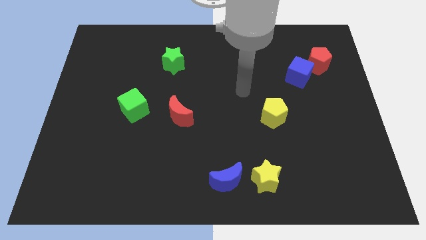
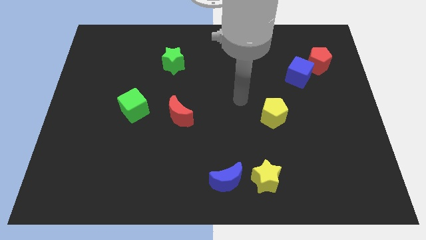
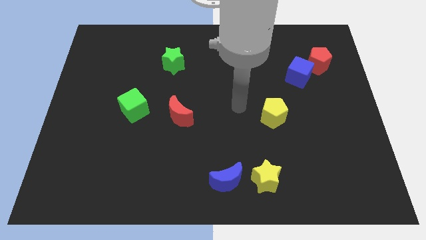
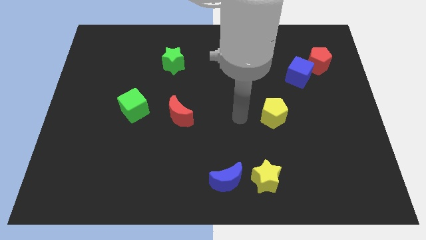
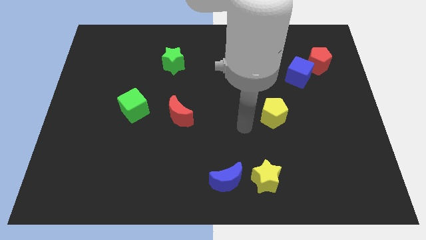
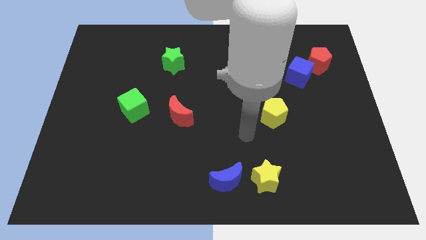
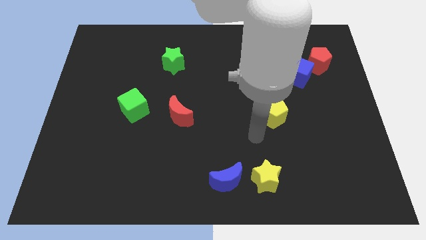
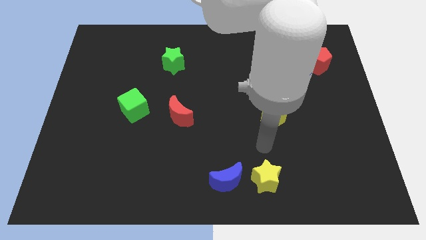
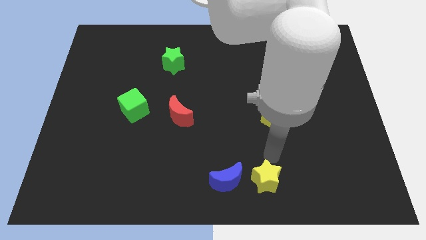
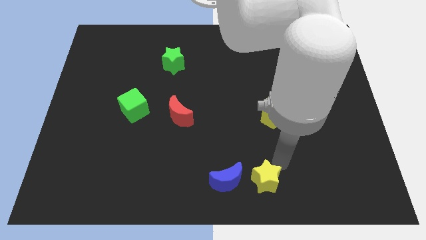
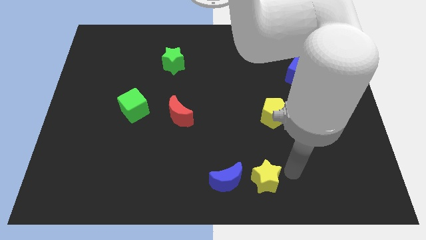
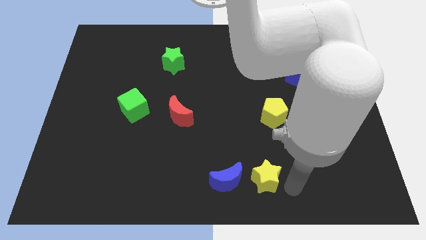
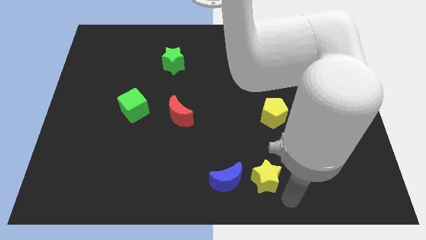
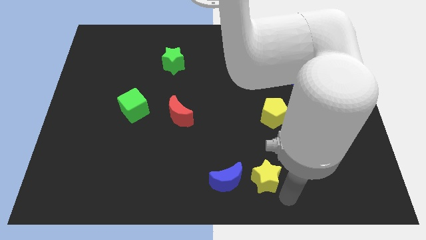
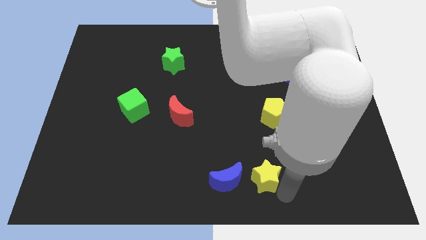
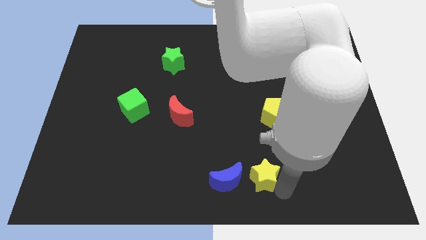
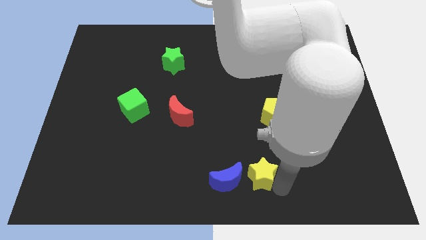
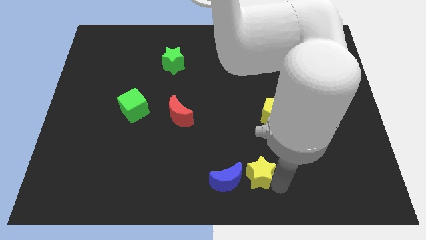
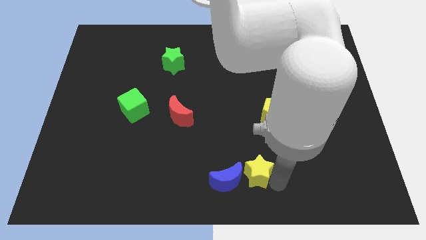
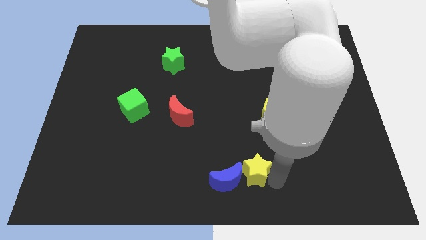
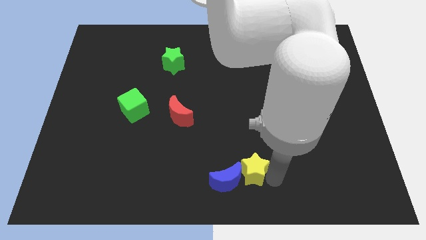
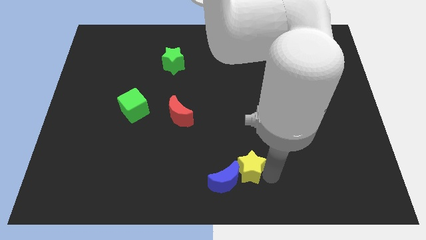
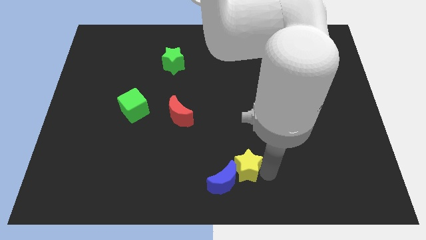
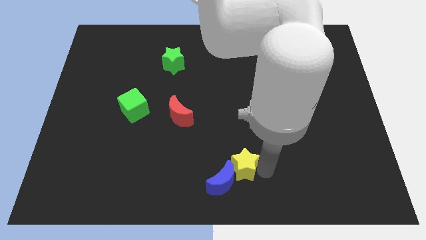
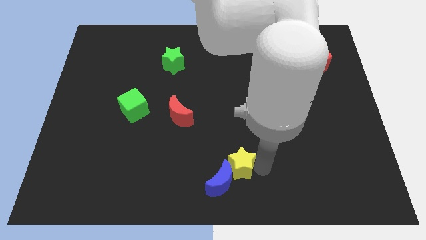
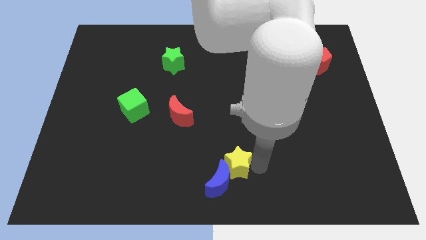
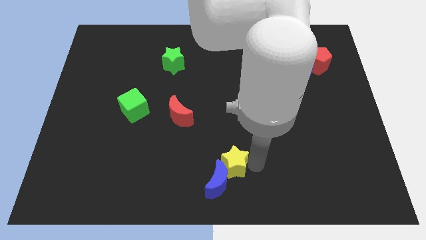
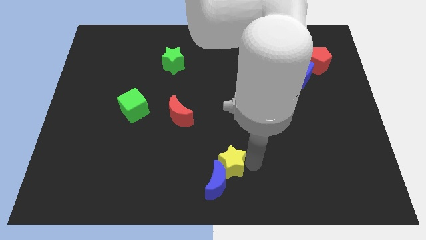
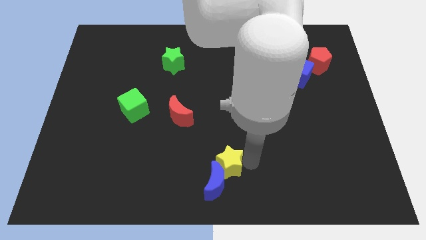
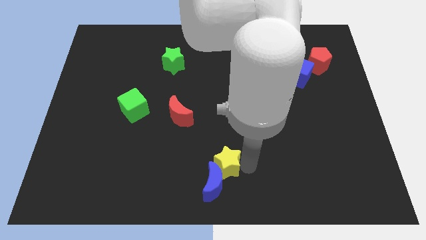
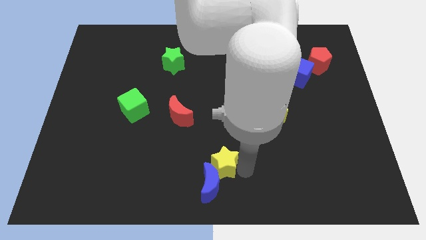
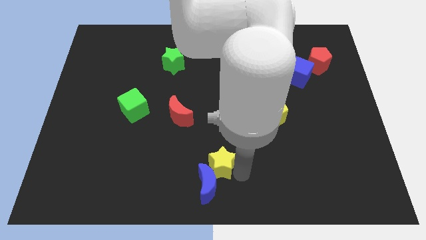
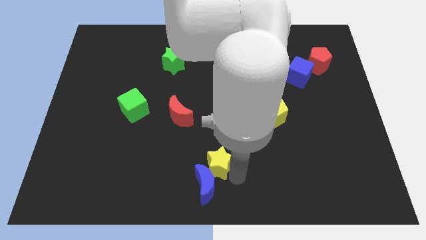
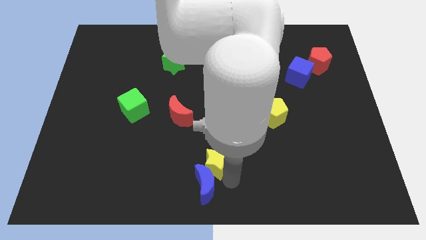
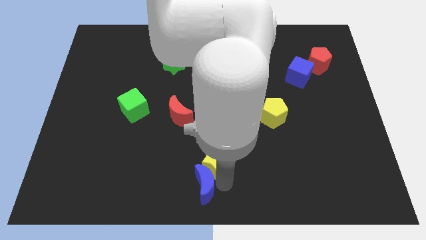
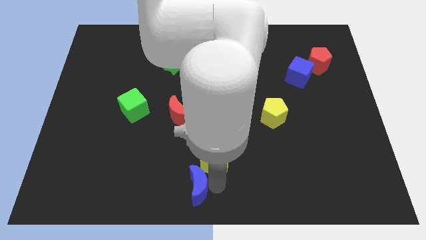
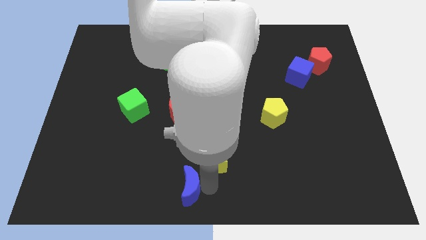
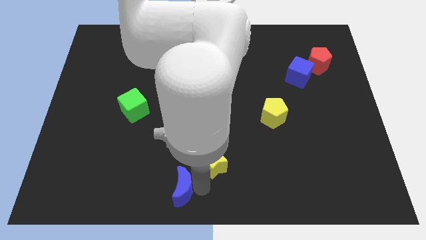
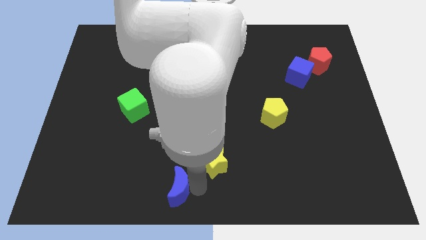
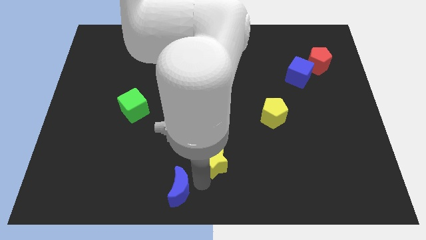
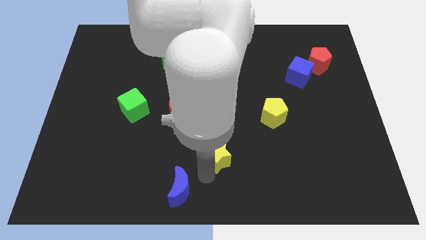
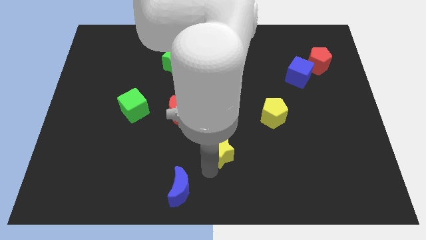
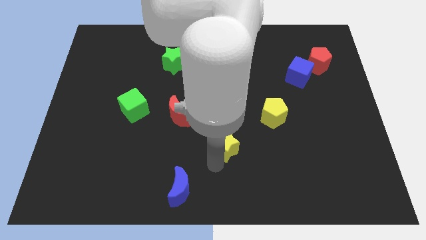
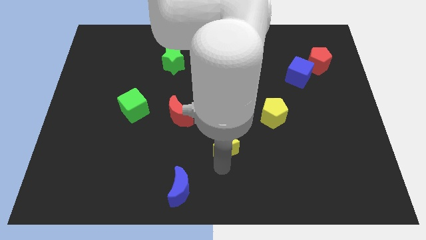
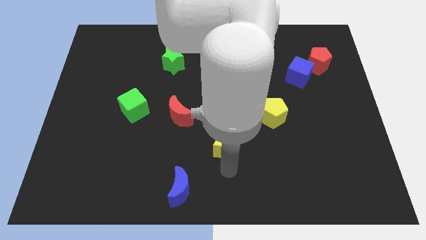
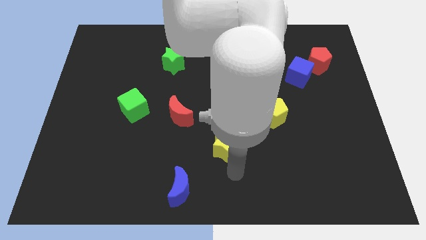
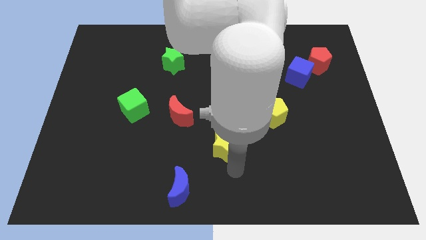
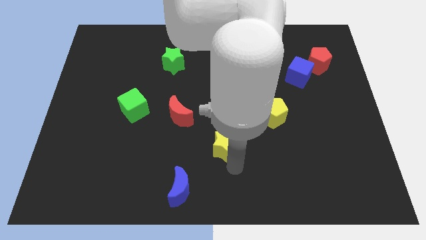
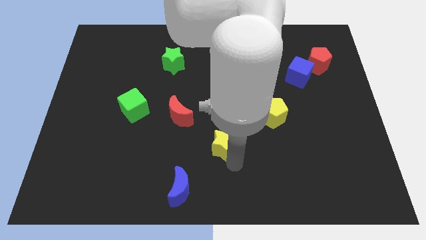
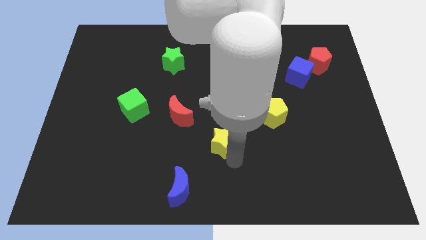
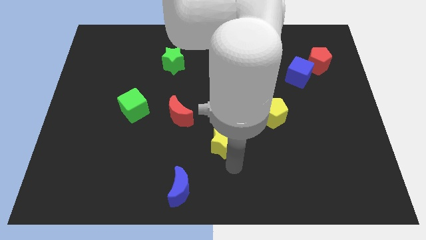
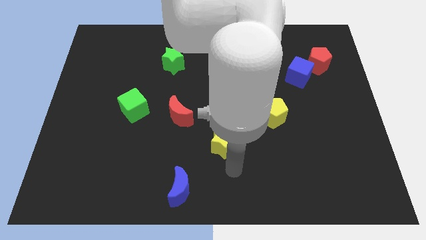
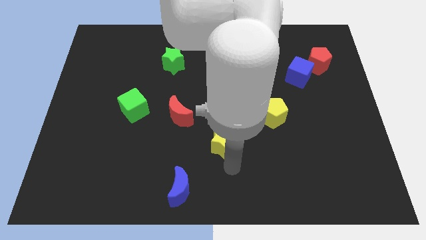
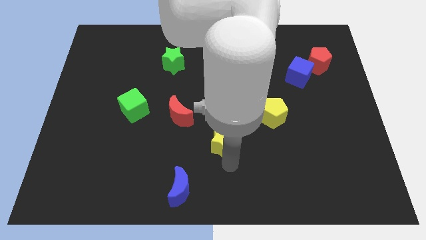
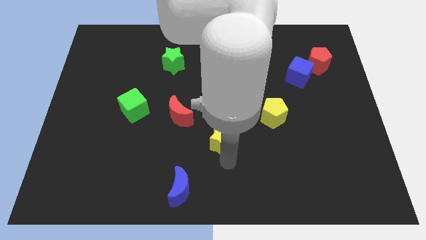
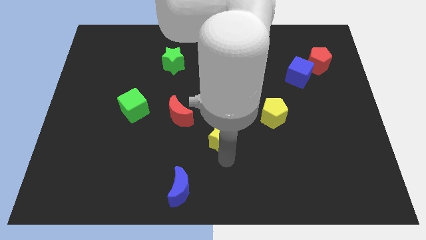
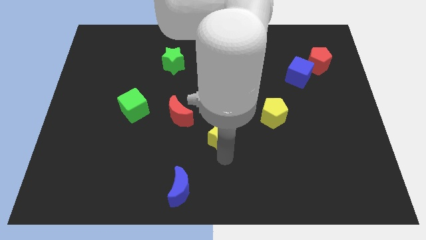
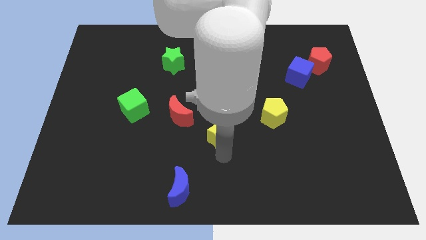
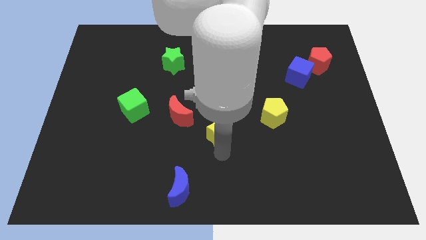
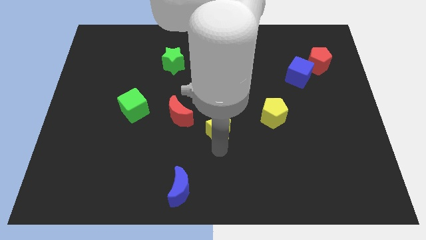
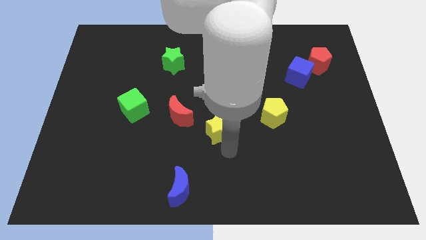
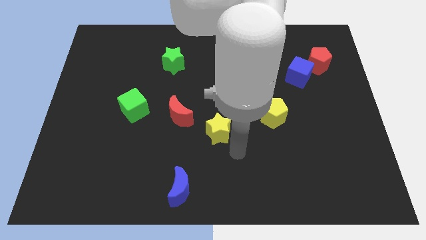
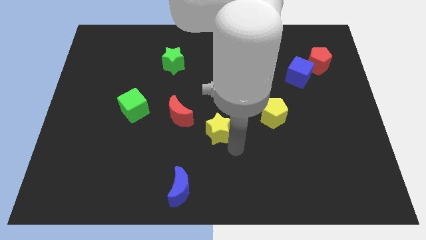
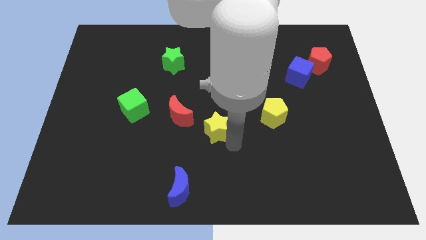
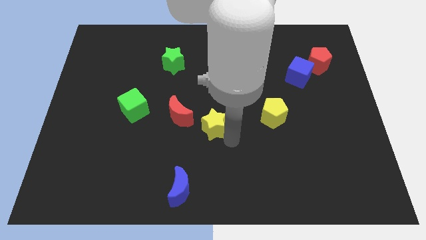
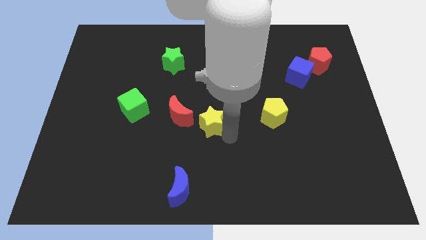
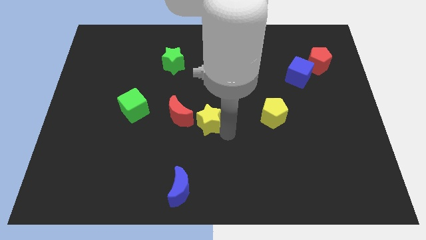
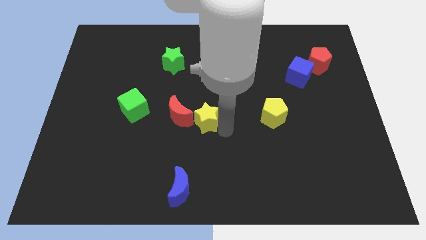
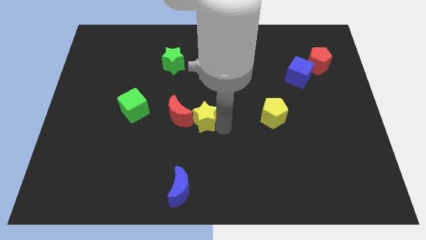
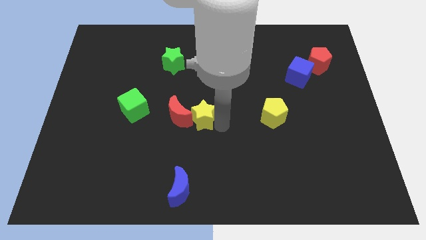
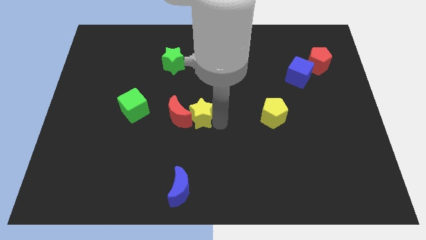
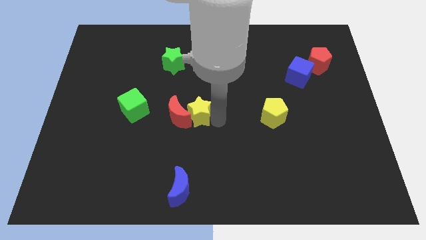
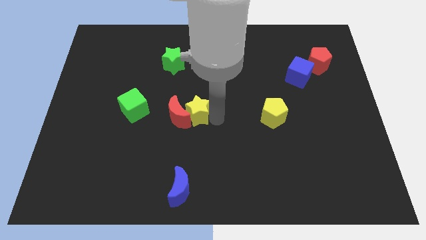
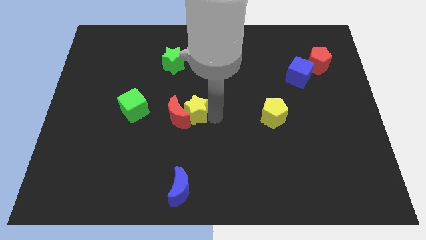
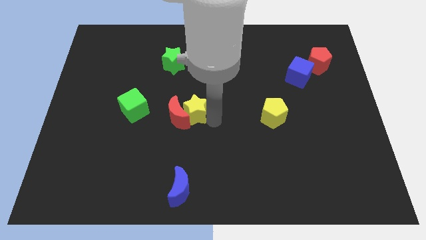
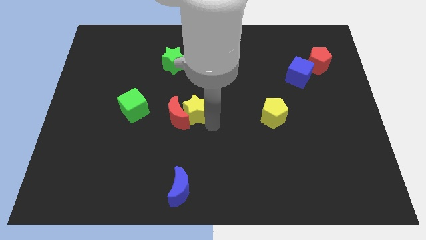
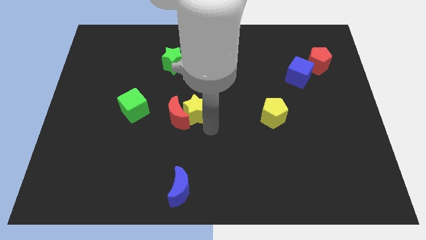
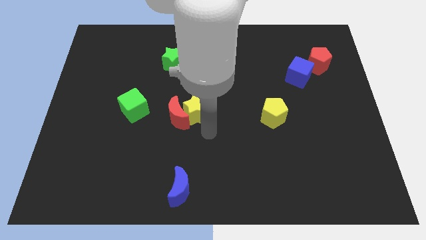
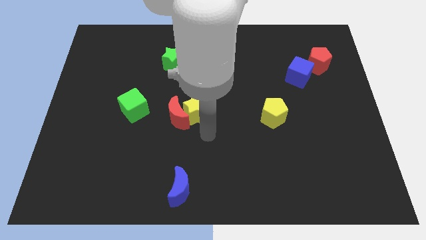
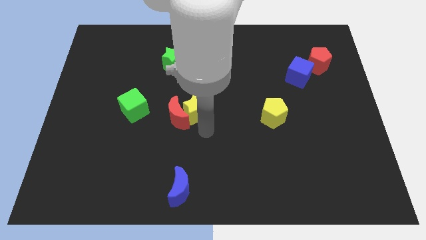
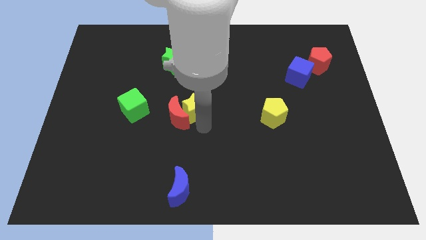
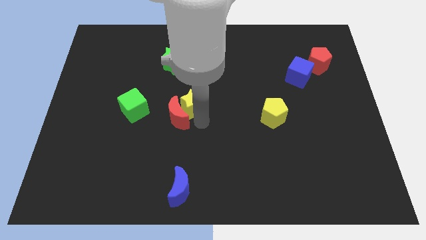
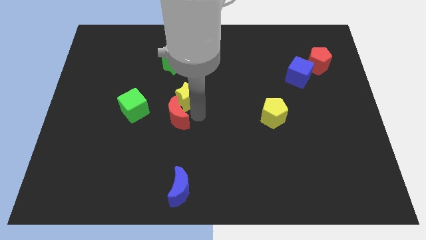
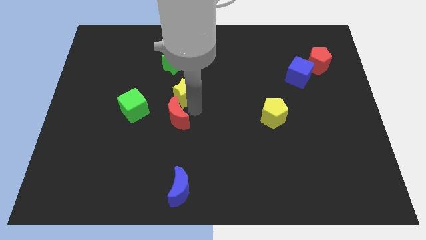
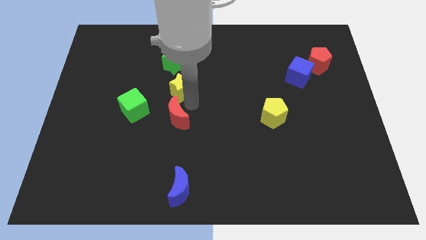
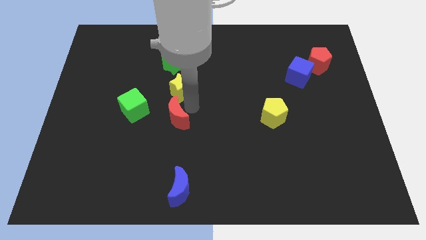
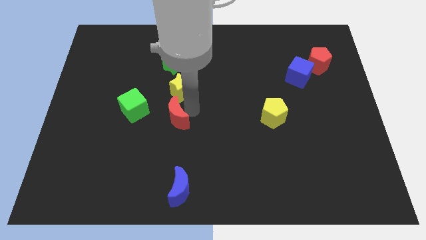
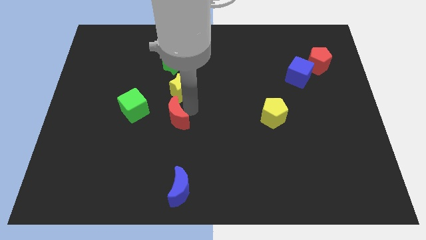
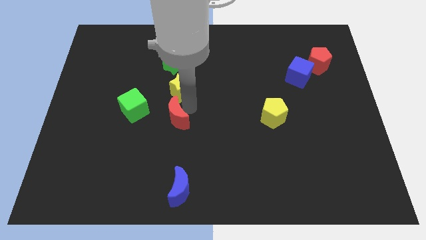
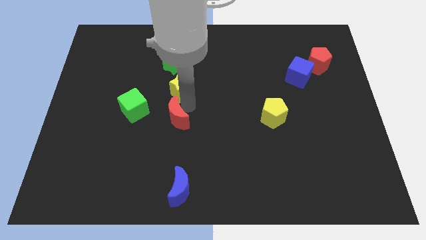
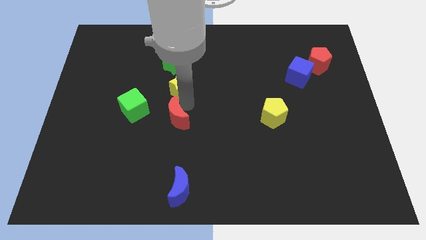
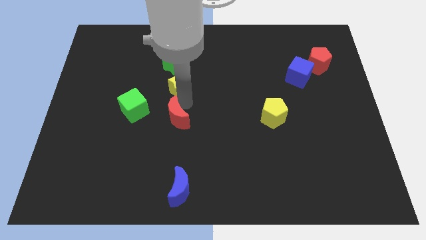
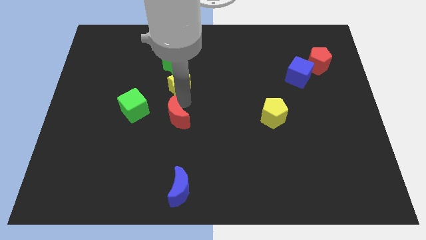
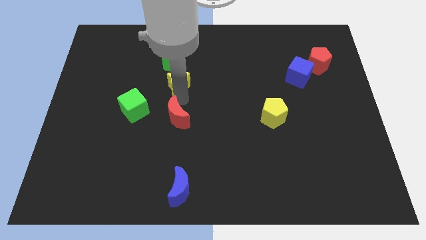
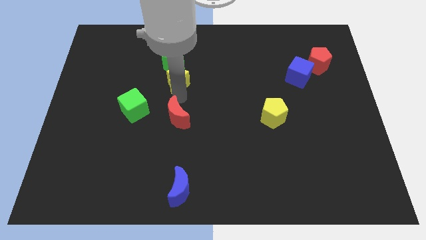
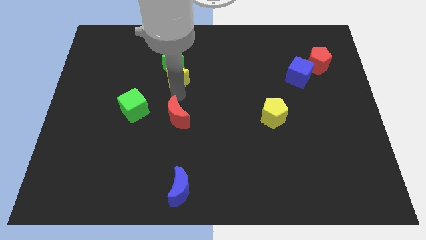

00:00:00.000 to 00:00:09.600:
slide the yellow star close to the green star
